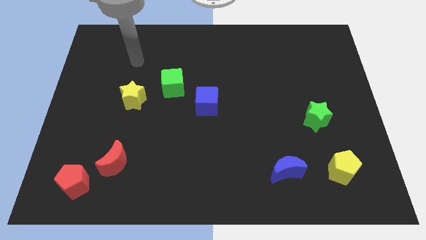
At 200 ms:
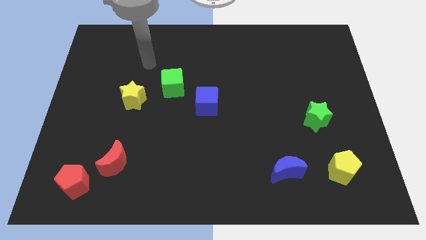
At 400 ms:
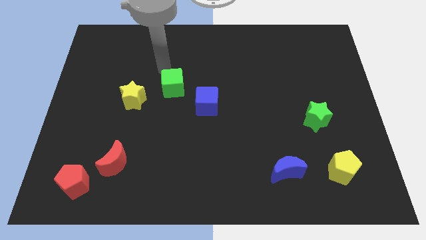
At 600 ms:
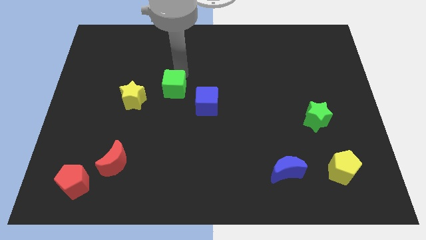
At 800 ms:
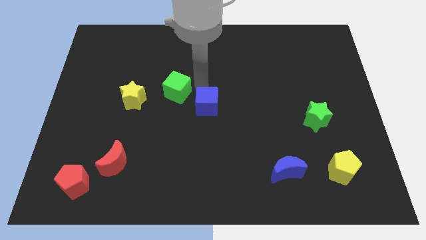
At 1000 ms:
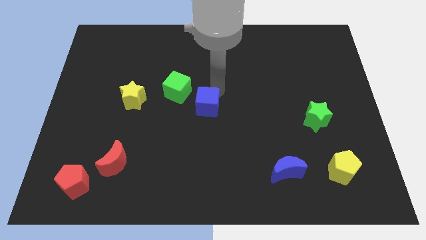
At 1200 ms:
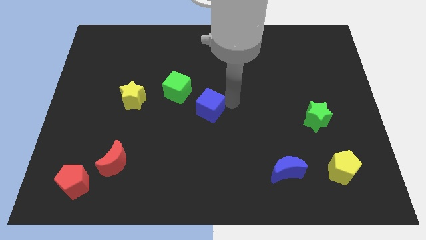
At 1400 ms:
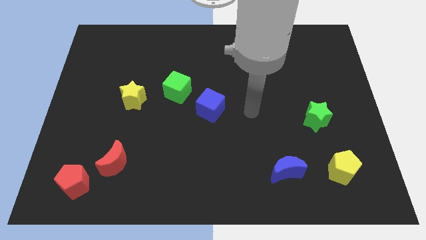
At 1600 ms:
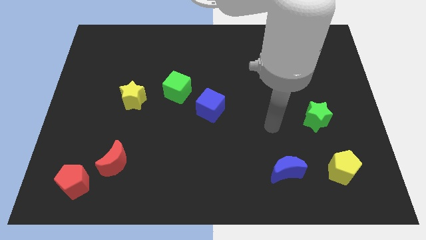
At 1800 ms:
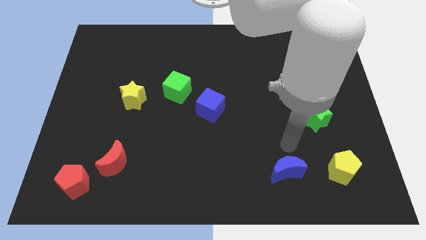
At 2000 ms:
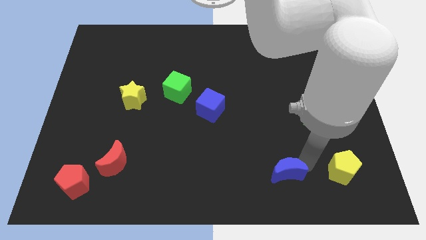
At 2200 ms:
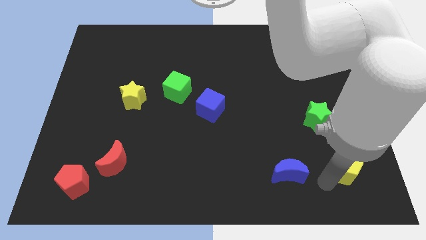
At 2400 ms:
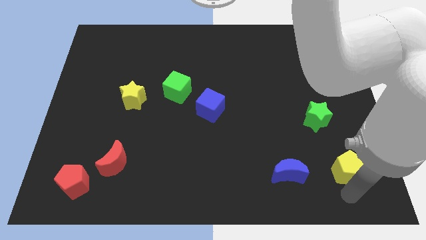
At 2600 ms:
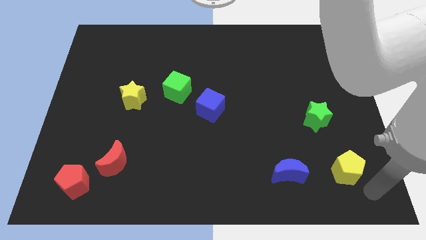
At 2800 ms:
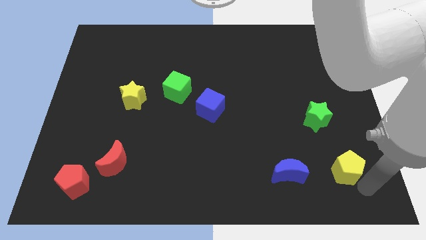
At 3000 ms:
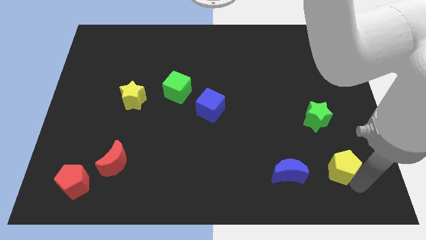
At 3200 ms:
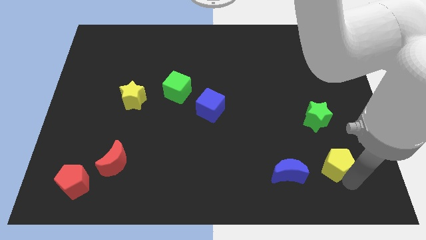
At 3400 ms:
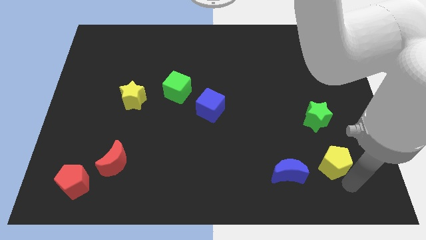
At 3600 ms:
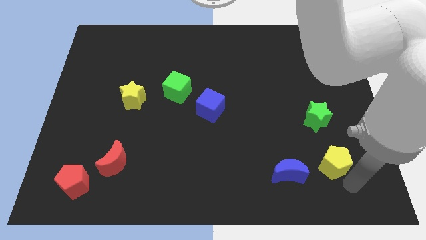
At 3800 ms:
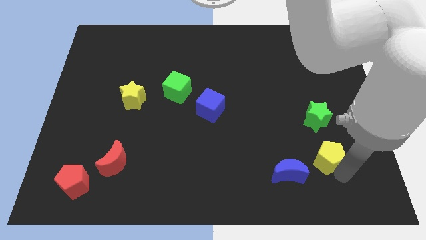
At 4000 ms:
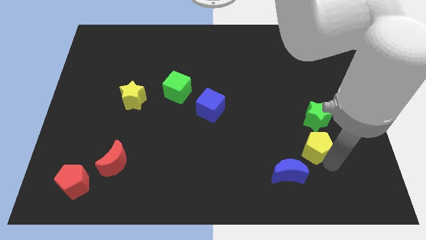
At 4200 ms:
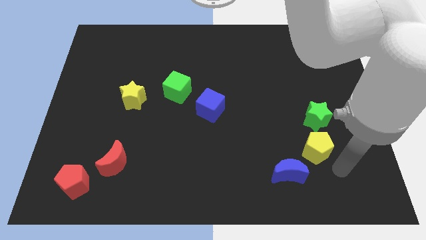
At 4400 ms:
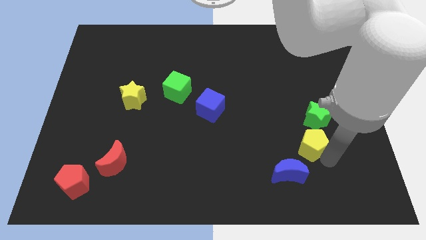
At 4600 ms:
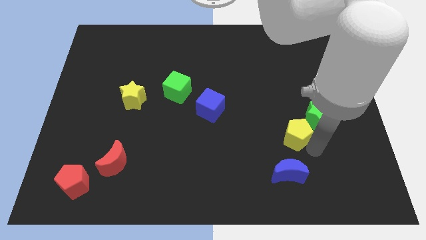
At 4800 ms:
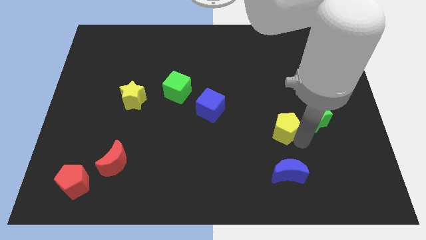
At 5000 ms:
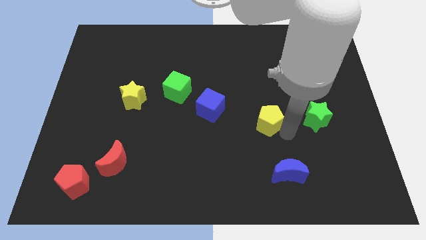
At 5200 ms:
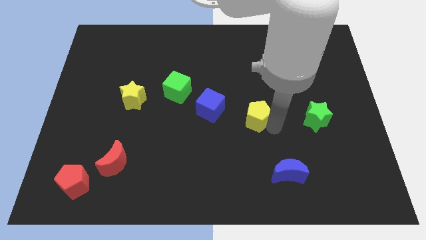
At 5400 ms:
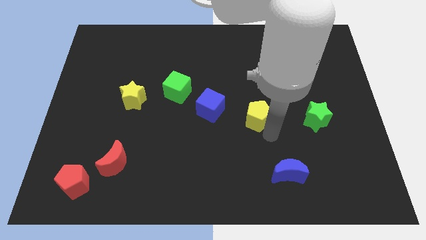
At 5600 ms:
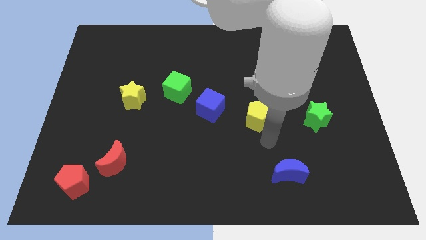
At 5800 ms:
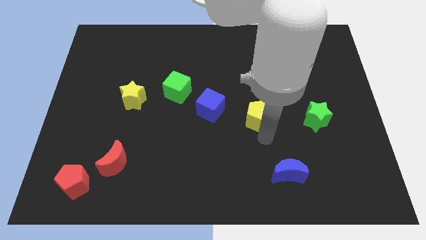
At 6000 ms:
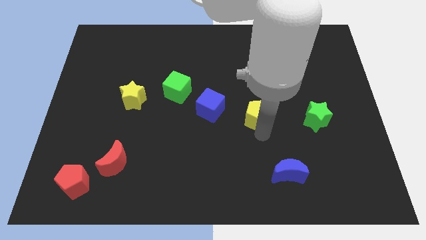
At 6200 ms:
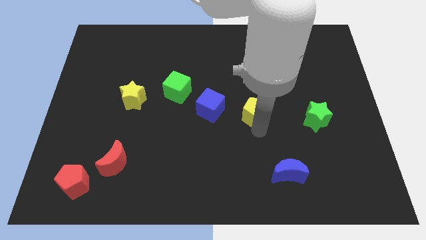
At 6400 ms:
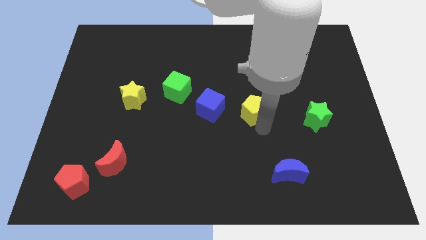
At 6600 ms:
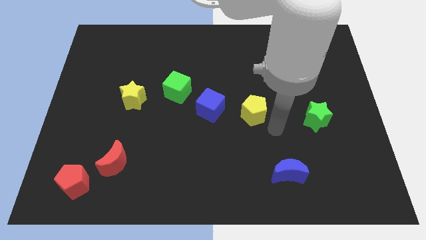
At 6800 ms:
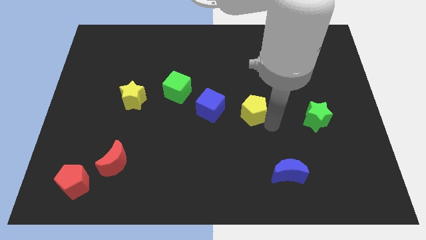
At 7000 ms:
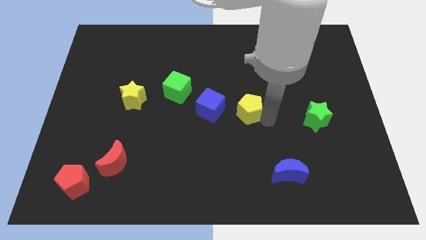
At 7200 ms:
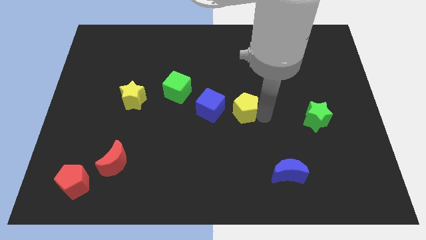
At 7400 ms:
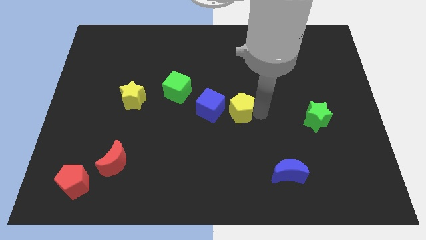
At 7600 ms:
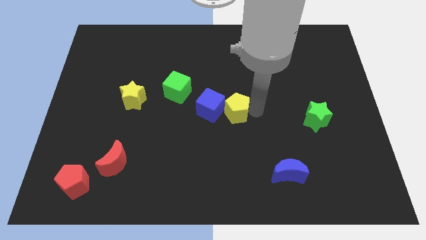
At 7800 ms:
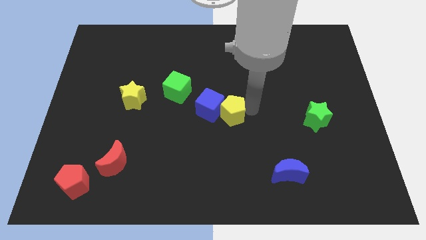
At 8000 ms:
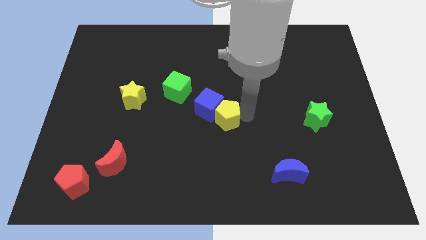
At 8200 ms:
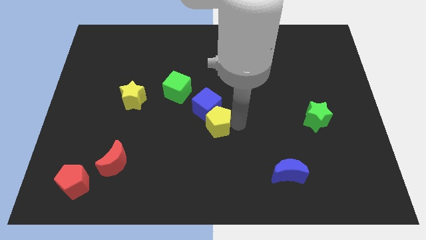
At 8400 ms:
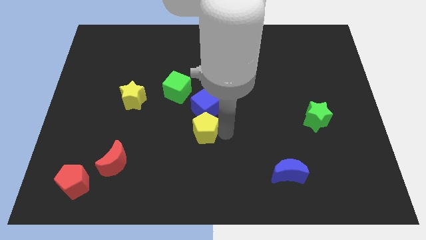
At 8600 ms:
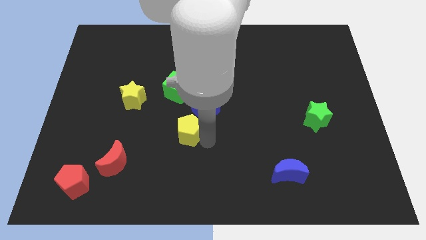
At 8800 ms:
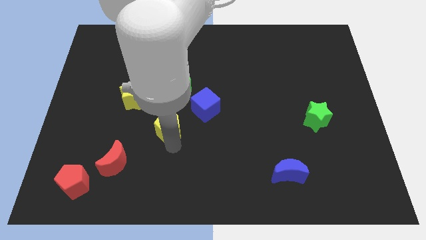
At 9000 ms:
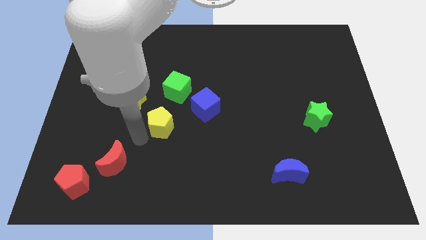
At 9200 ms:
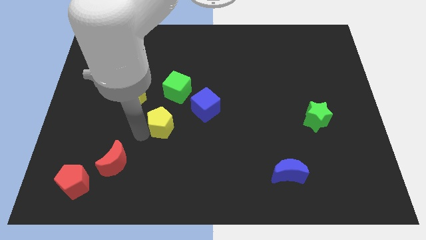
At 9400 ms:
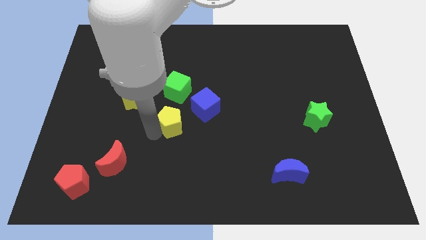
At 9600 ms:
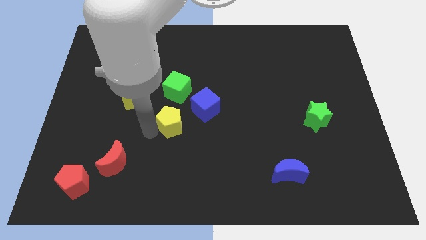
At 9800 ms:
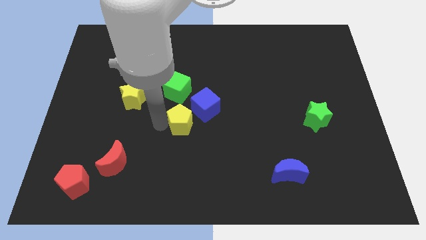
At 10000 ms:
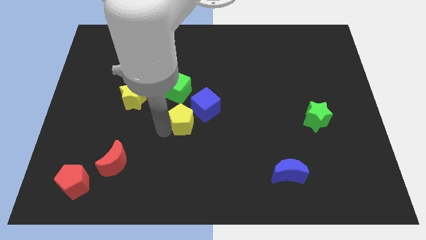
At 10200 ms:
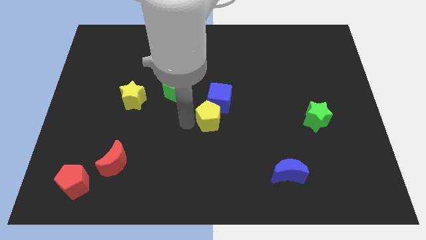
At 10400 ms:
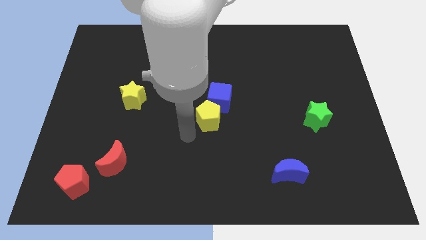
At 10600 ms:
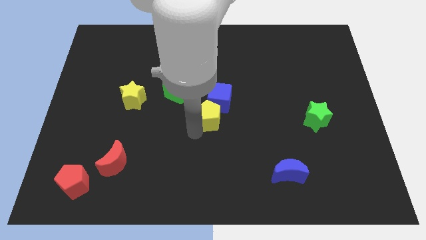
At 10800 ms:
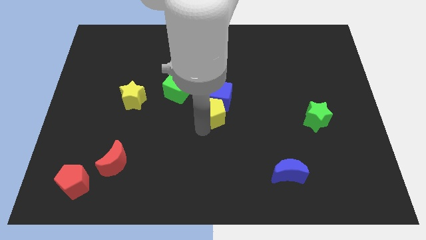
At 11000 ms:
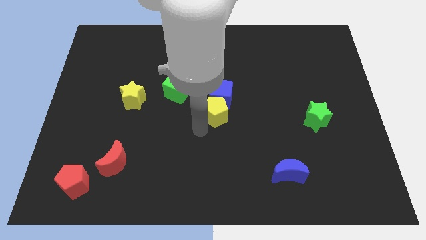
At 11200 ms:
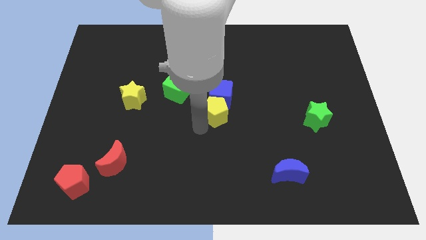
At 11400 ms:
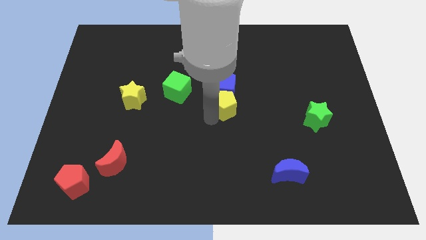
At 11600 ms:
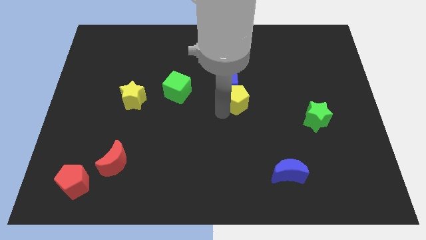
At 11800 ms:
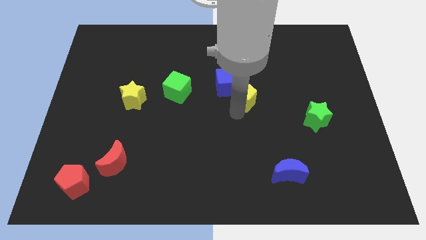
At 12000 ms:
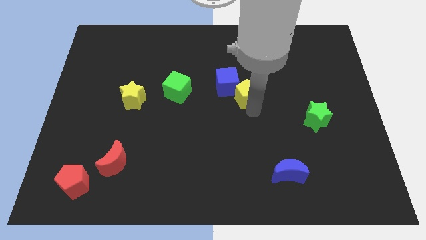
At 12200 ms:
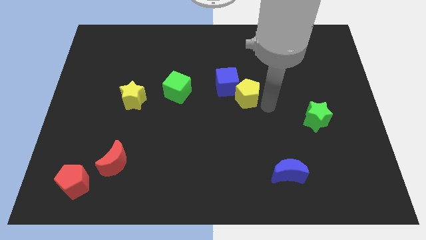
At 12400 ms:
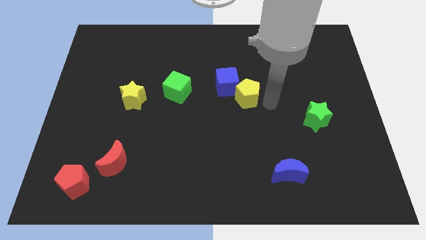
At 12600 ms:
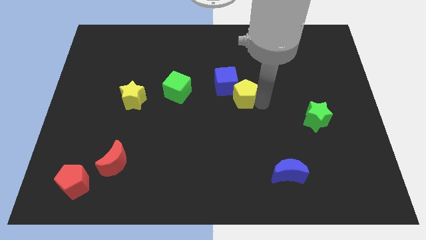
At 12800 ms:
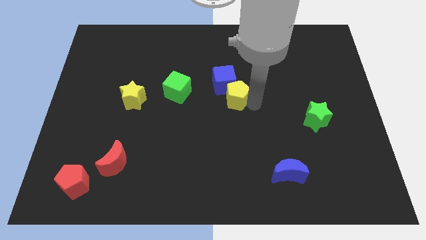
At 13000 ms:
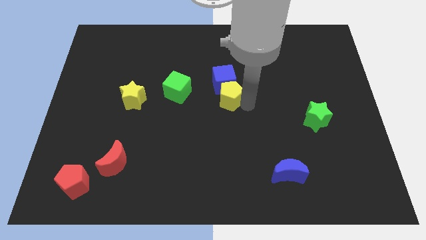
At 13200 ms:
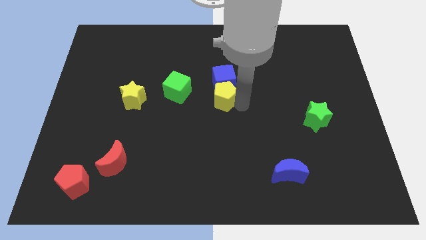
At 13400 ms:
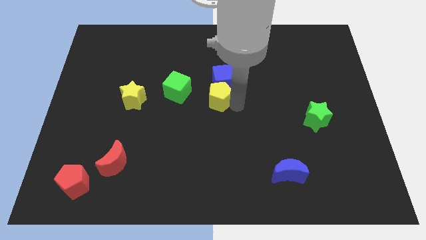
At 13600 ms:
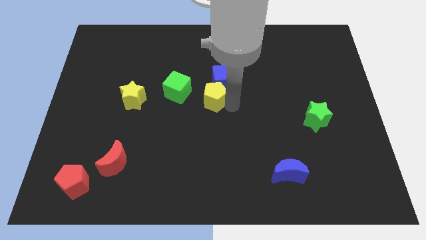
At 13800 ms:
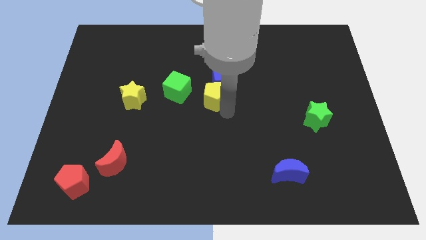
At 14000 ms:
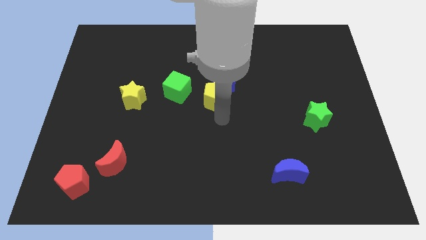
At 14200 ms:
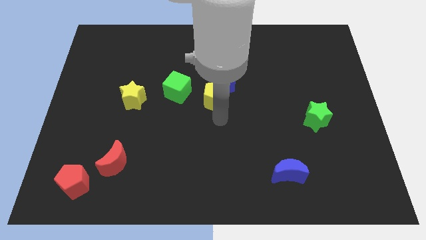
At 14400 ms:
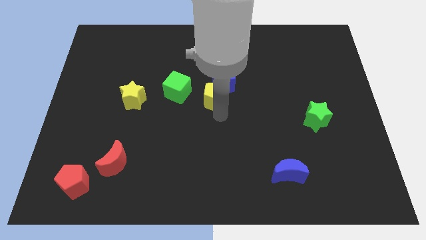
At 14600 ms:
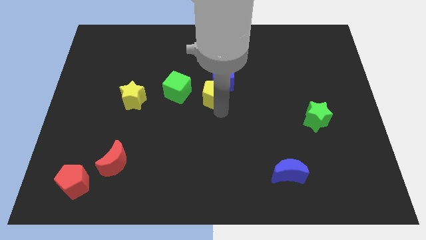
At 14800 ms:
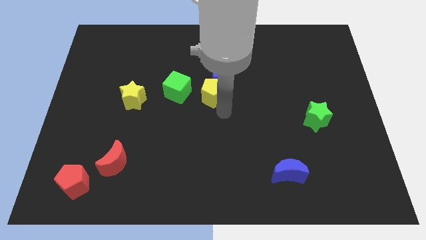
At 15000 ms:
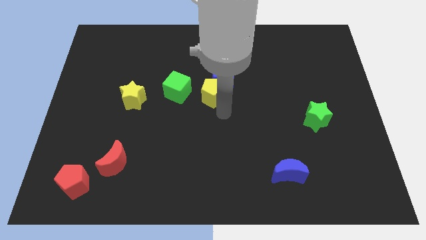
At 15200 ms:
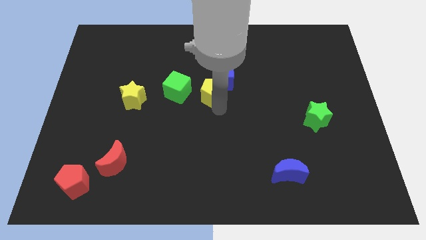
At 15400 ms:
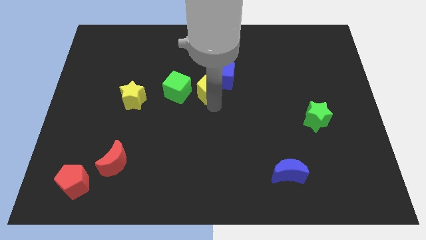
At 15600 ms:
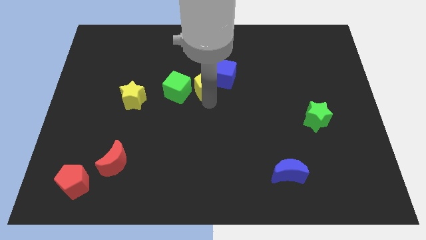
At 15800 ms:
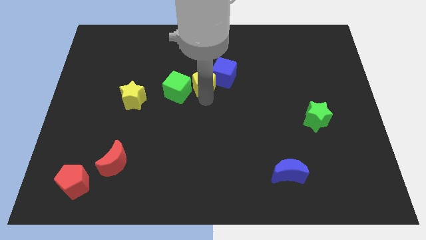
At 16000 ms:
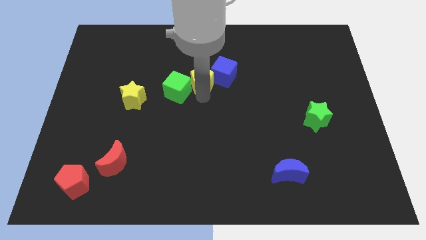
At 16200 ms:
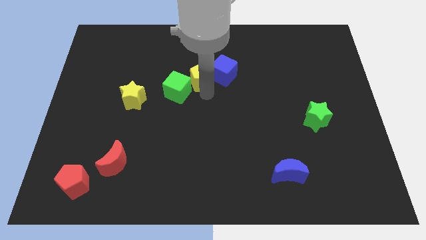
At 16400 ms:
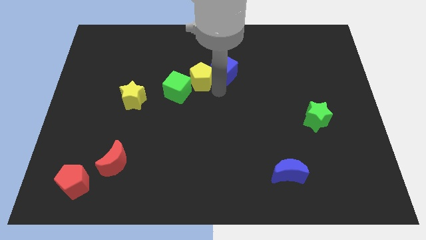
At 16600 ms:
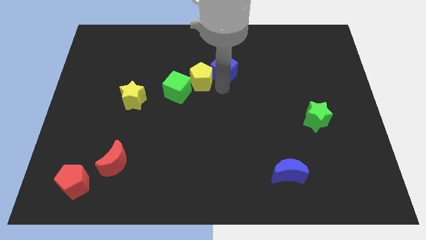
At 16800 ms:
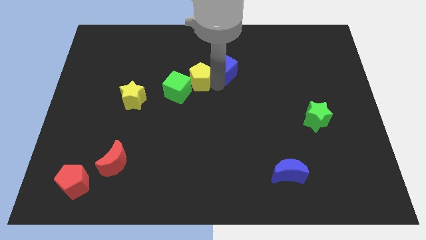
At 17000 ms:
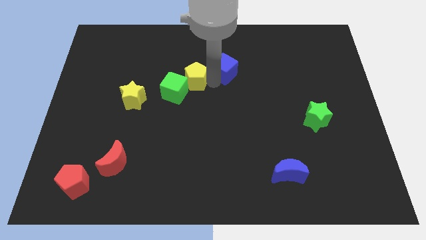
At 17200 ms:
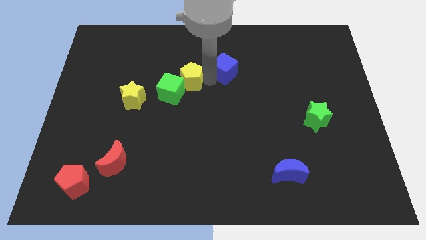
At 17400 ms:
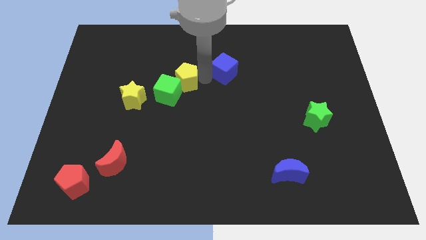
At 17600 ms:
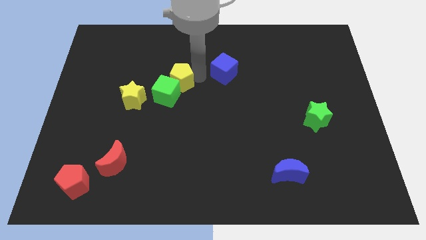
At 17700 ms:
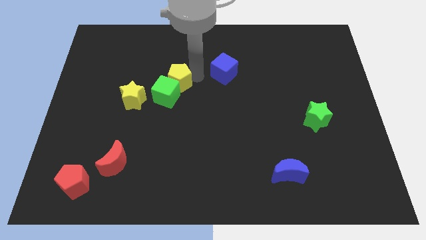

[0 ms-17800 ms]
slide the yellow pentagon diagonally up and to the right of the yellow star
